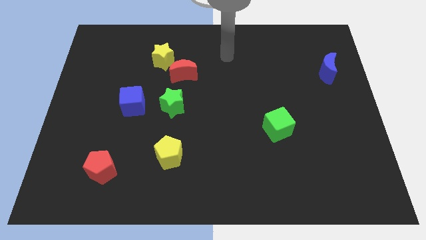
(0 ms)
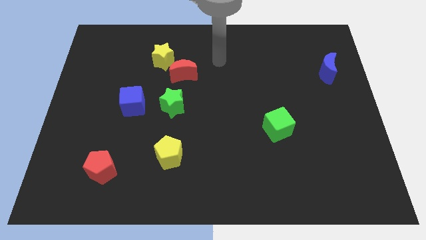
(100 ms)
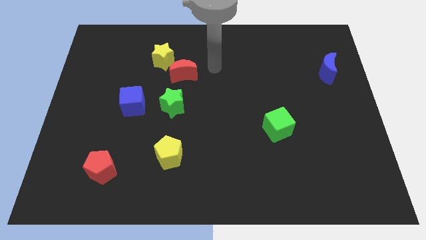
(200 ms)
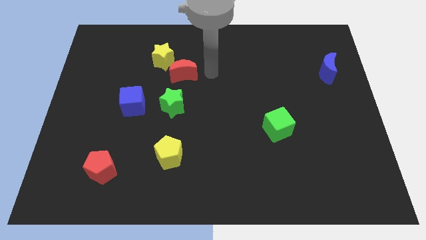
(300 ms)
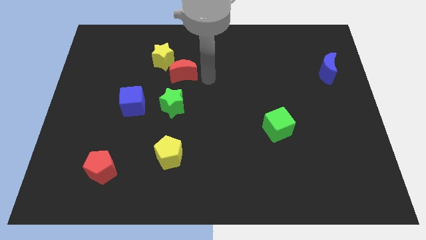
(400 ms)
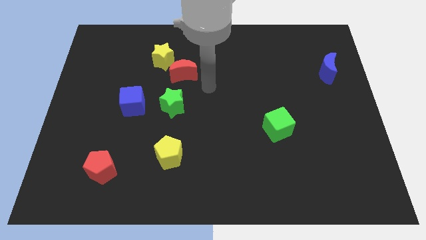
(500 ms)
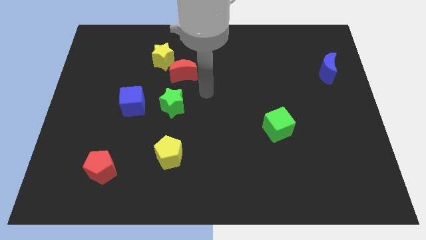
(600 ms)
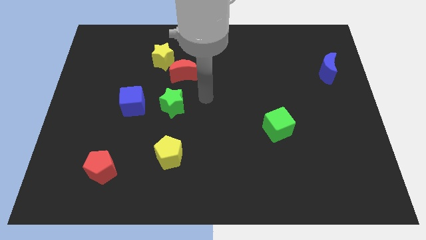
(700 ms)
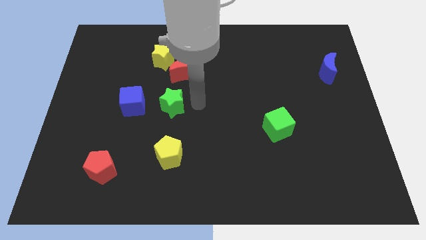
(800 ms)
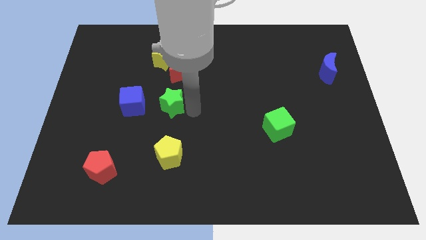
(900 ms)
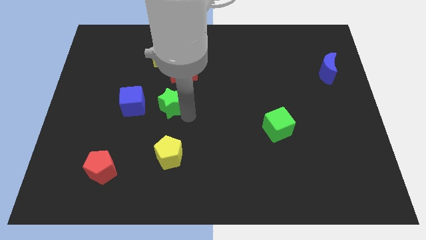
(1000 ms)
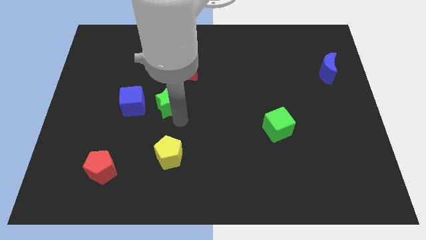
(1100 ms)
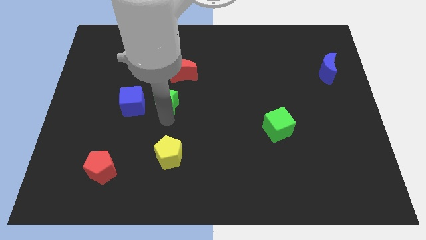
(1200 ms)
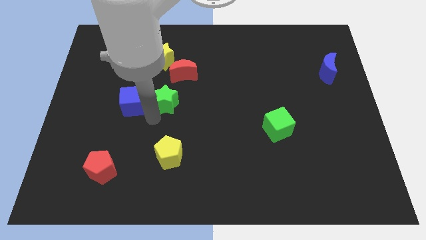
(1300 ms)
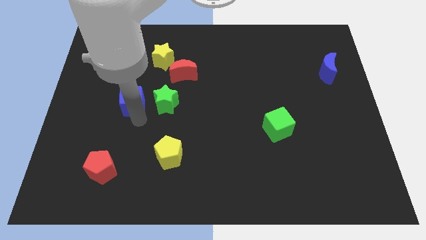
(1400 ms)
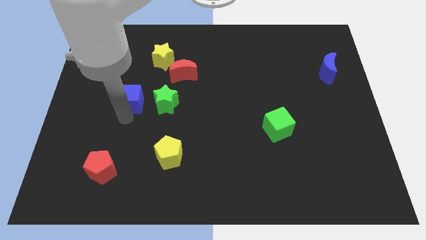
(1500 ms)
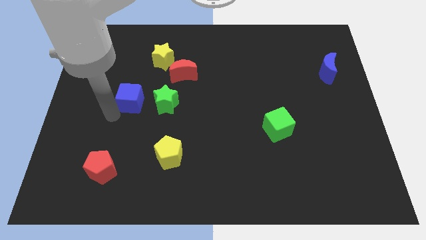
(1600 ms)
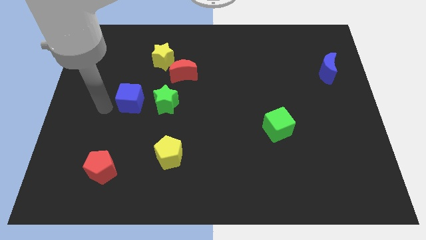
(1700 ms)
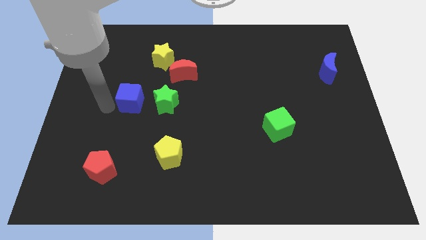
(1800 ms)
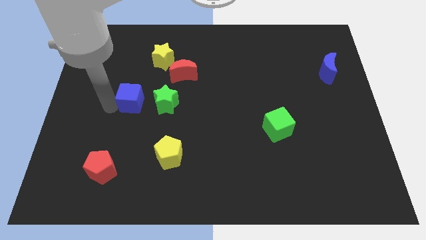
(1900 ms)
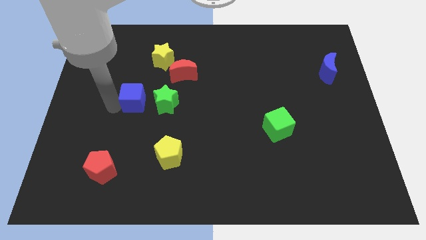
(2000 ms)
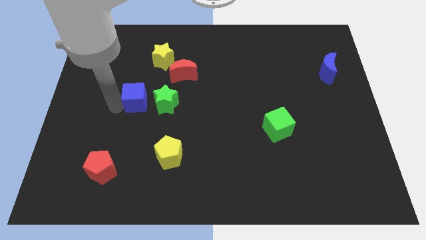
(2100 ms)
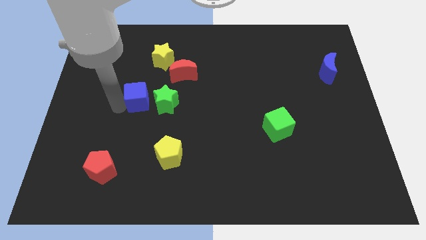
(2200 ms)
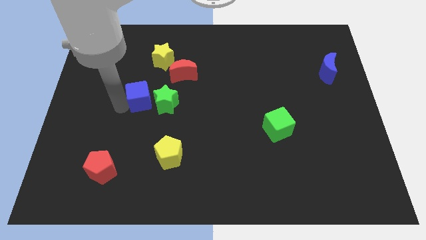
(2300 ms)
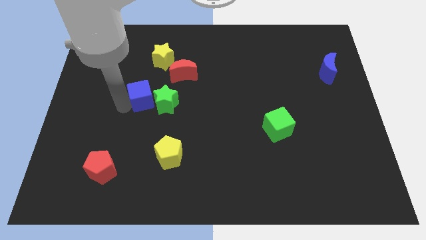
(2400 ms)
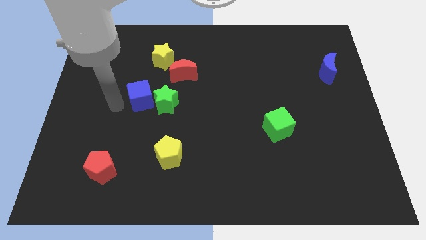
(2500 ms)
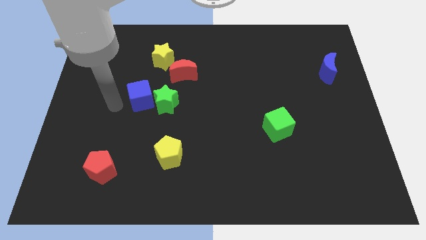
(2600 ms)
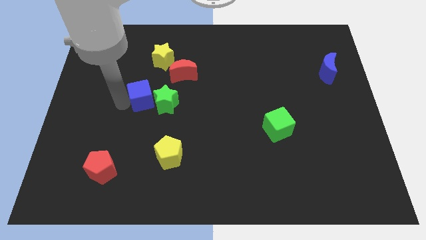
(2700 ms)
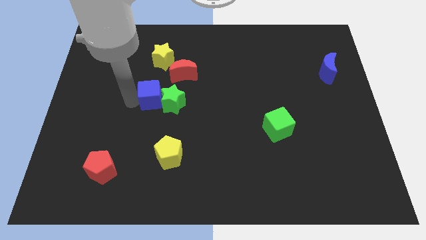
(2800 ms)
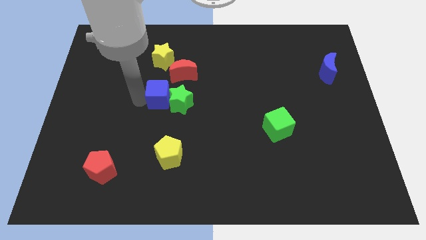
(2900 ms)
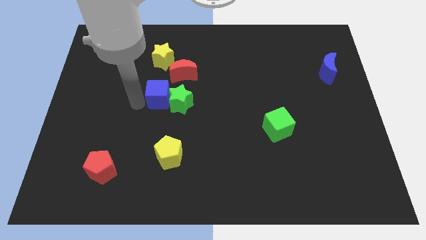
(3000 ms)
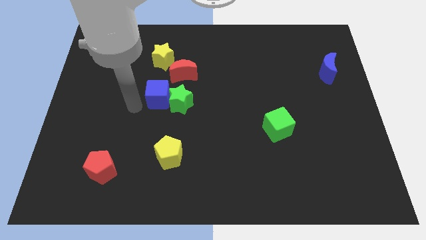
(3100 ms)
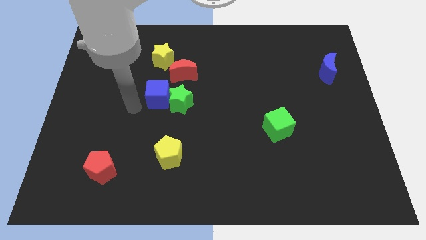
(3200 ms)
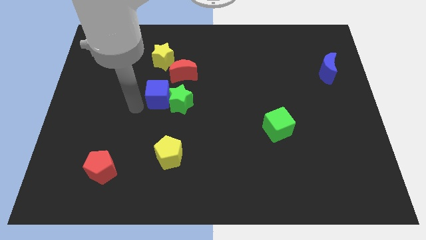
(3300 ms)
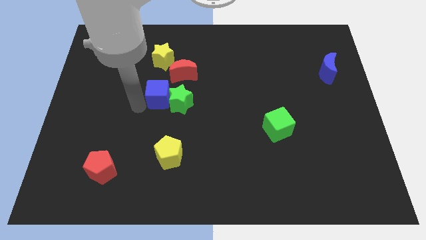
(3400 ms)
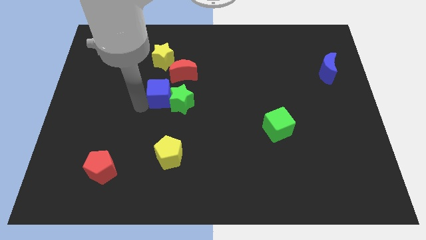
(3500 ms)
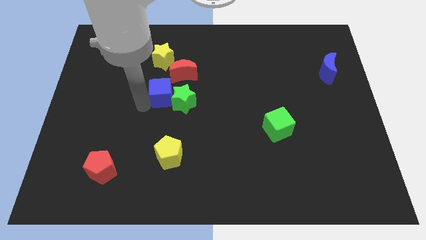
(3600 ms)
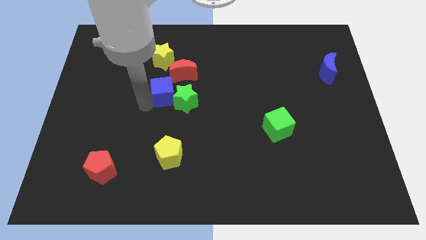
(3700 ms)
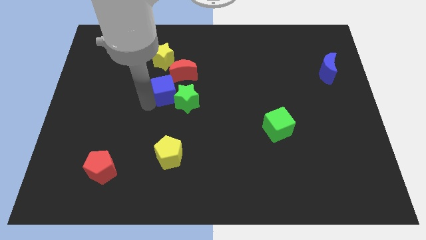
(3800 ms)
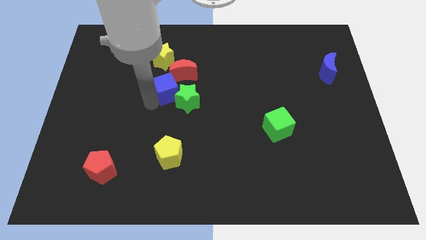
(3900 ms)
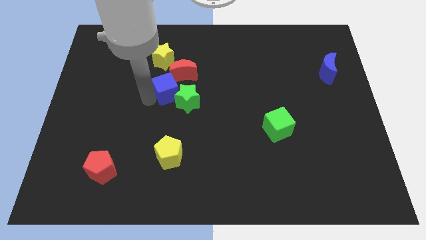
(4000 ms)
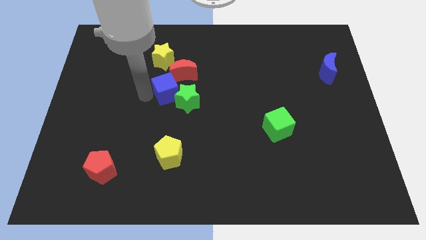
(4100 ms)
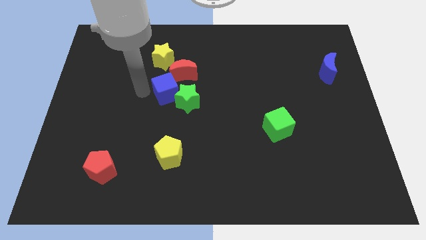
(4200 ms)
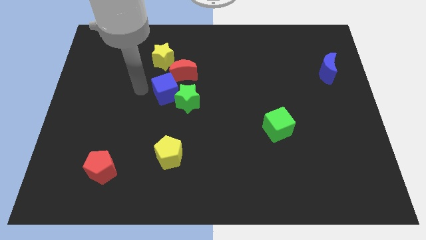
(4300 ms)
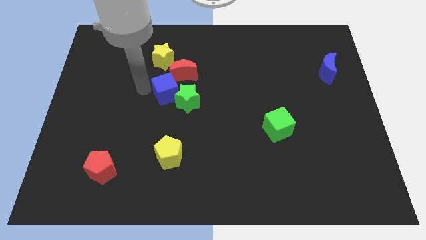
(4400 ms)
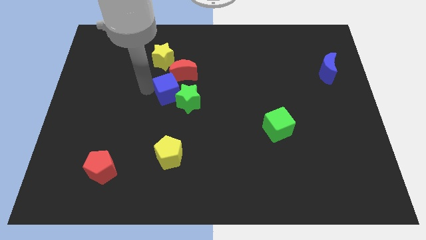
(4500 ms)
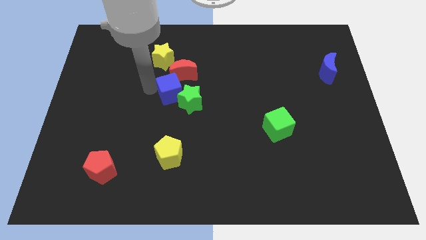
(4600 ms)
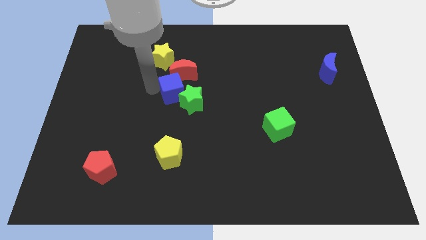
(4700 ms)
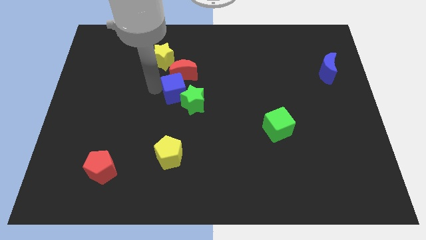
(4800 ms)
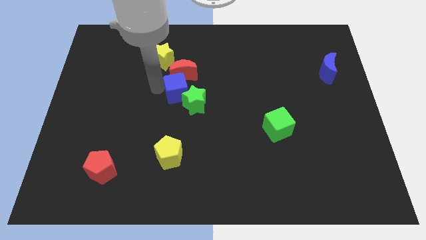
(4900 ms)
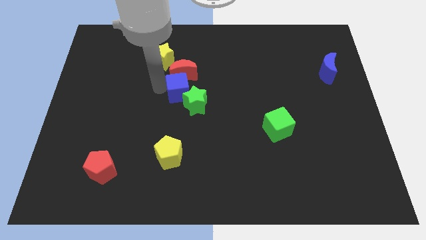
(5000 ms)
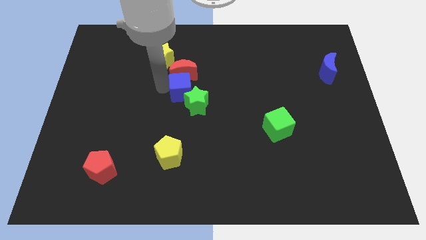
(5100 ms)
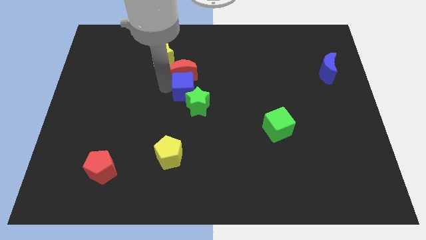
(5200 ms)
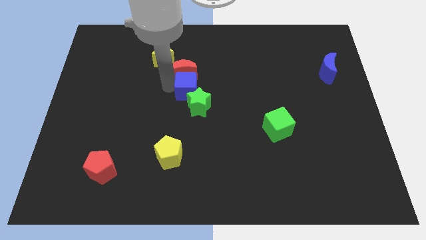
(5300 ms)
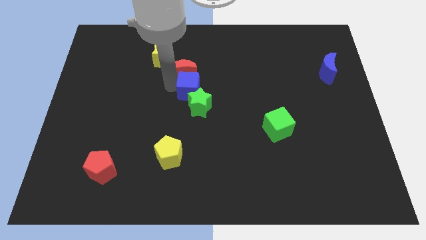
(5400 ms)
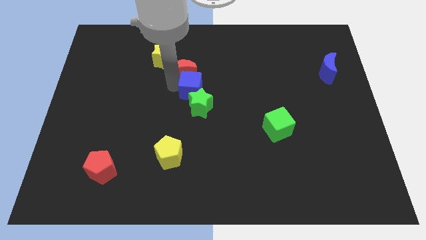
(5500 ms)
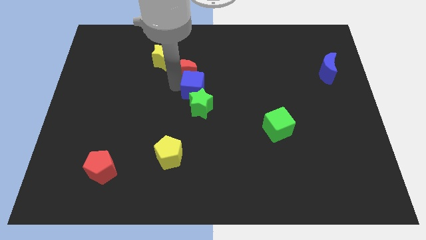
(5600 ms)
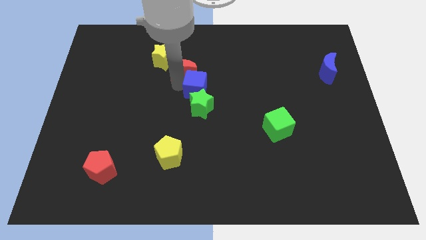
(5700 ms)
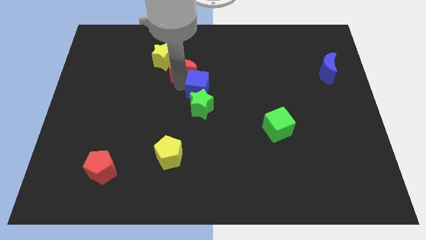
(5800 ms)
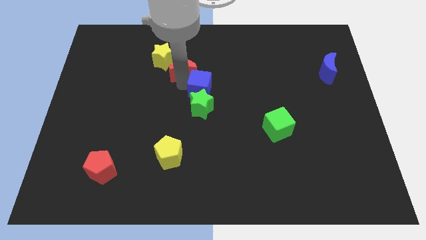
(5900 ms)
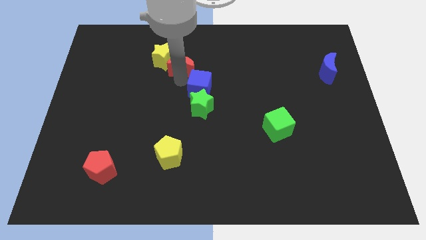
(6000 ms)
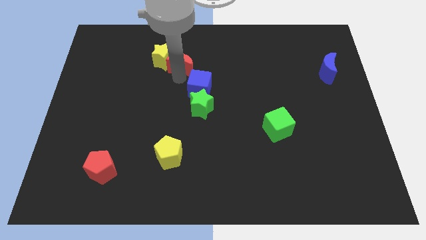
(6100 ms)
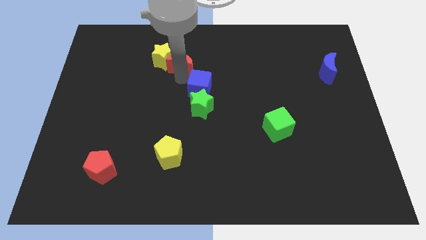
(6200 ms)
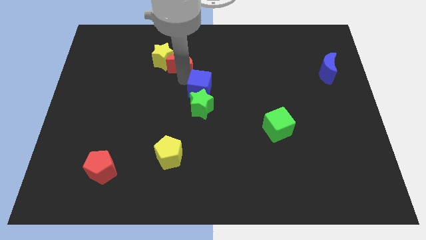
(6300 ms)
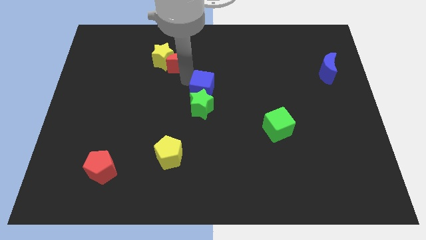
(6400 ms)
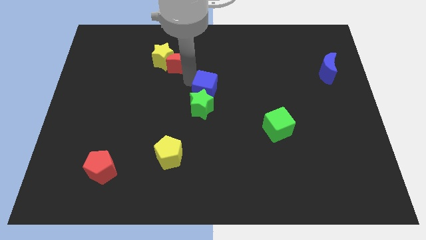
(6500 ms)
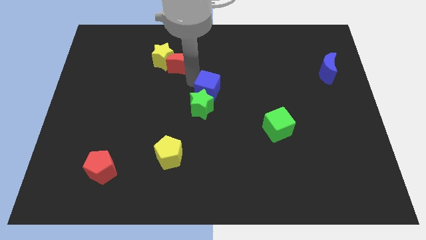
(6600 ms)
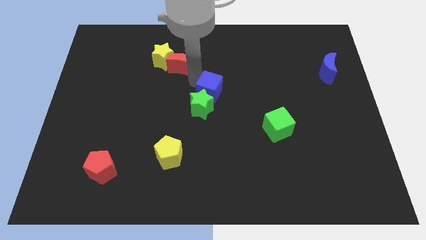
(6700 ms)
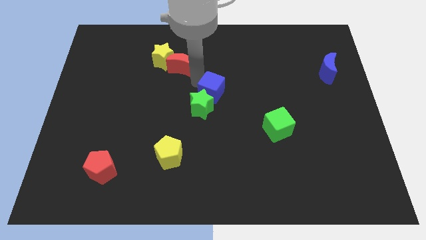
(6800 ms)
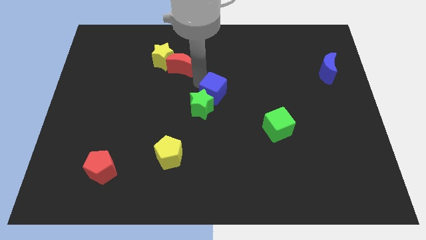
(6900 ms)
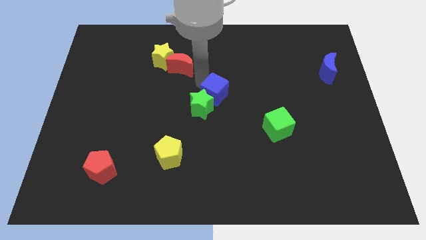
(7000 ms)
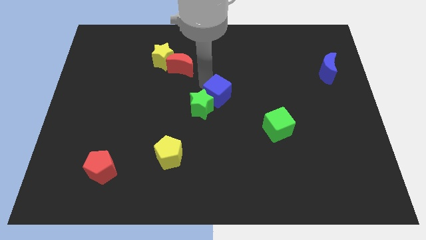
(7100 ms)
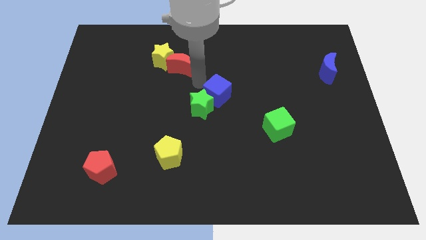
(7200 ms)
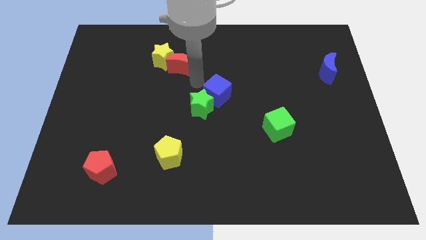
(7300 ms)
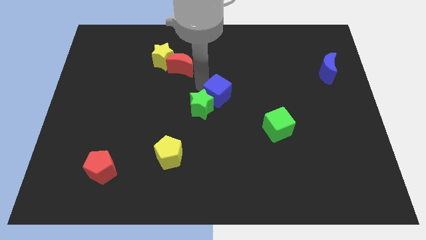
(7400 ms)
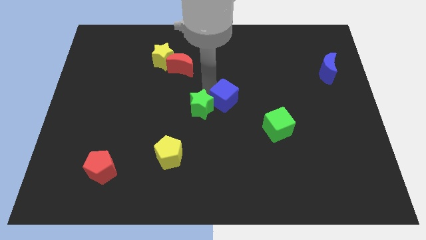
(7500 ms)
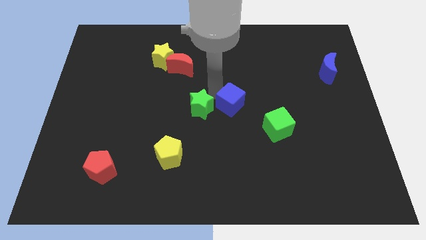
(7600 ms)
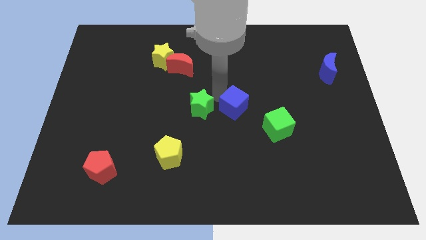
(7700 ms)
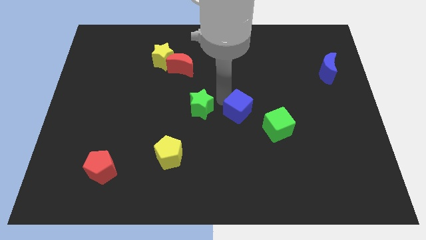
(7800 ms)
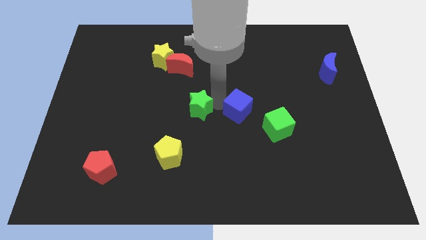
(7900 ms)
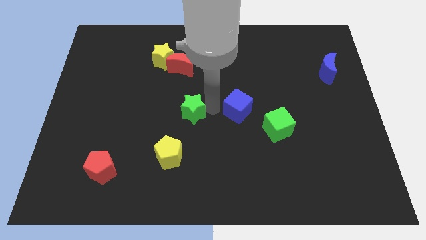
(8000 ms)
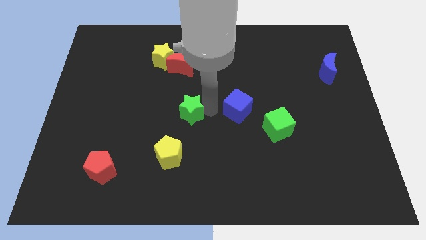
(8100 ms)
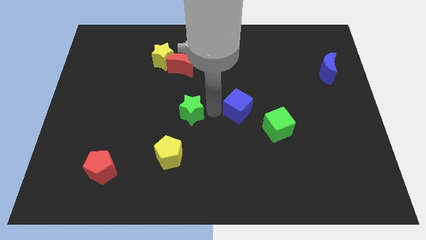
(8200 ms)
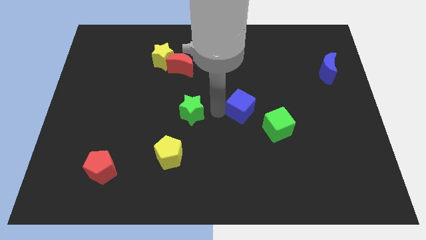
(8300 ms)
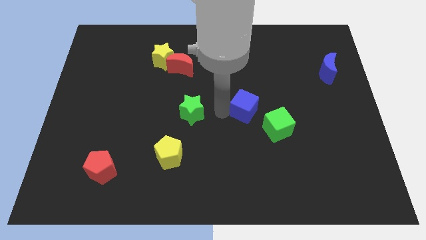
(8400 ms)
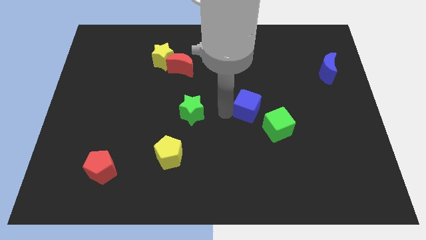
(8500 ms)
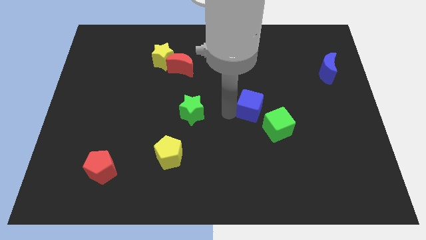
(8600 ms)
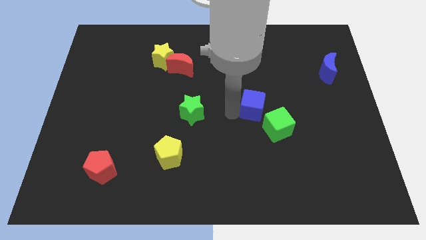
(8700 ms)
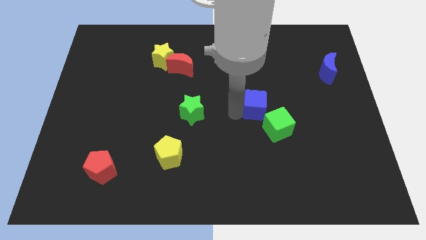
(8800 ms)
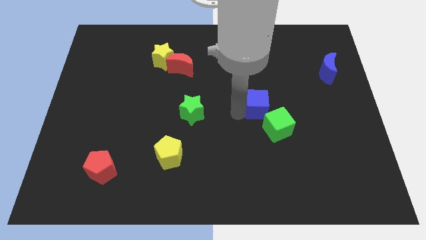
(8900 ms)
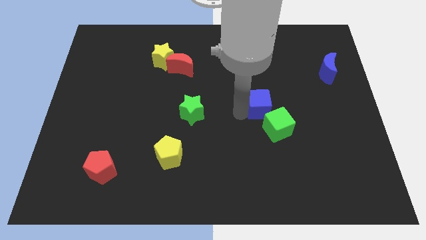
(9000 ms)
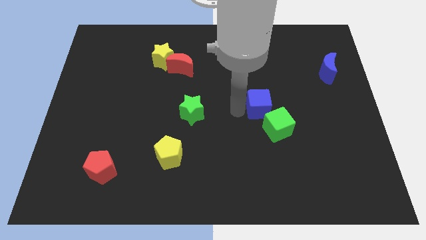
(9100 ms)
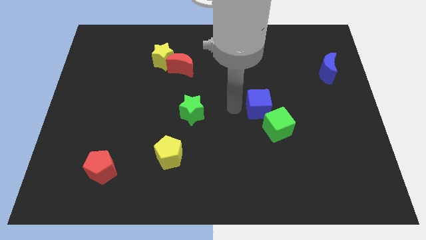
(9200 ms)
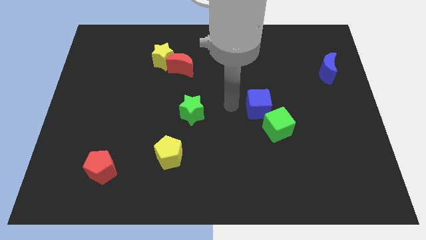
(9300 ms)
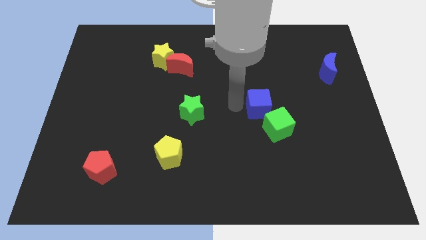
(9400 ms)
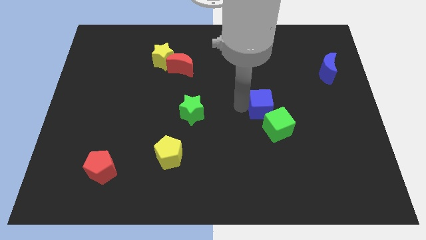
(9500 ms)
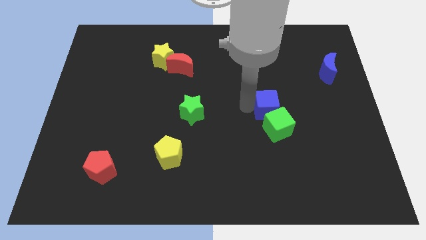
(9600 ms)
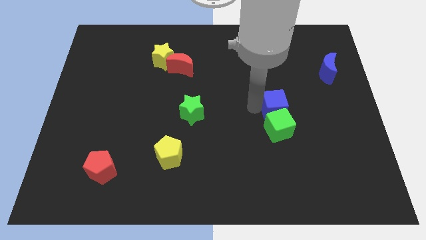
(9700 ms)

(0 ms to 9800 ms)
move the blue cube to the top right of the green cube
